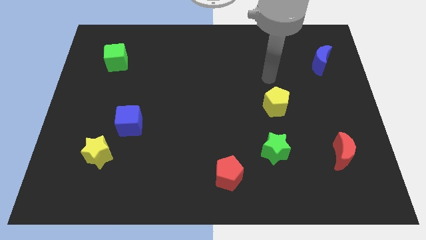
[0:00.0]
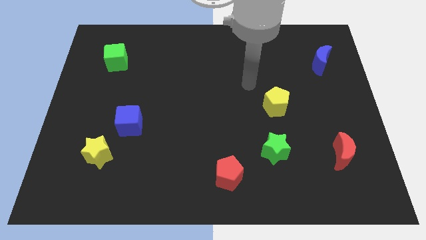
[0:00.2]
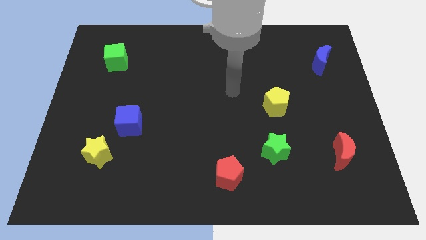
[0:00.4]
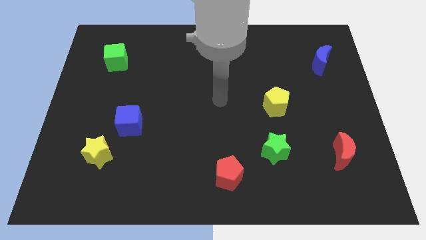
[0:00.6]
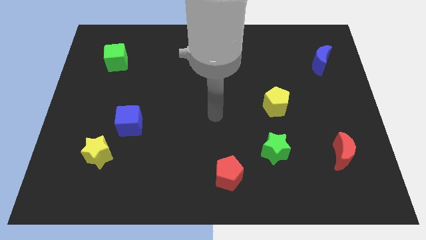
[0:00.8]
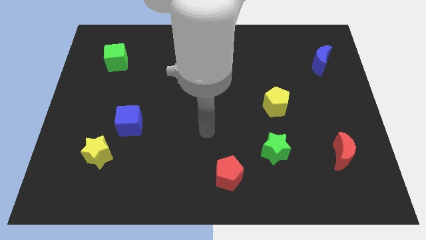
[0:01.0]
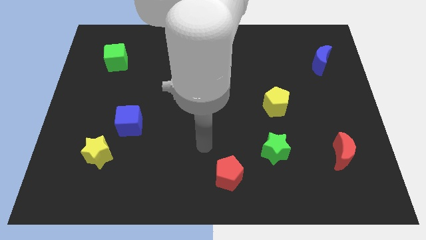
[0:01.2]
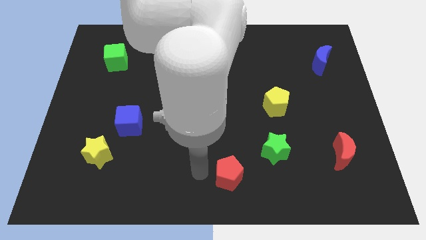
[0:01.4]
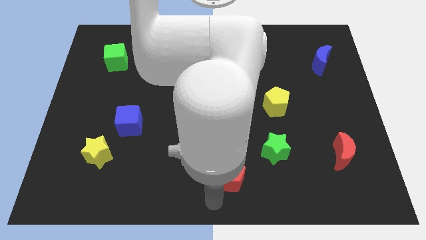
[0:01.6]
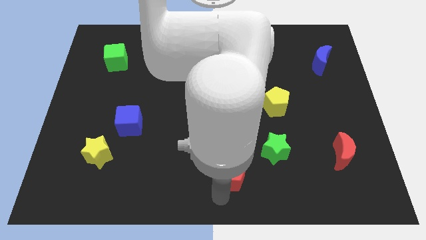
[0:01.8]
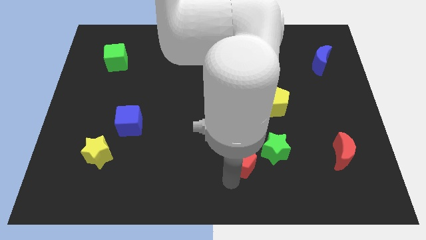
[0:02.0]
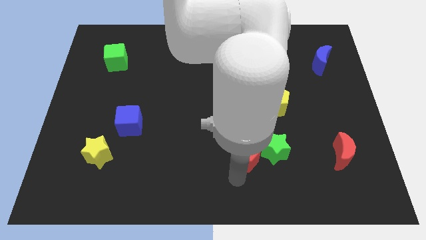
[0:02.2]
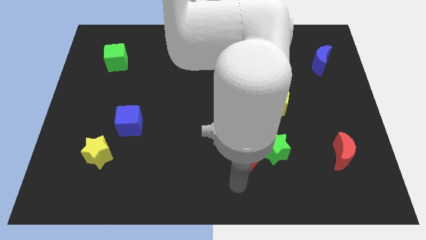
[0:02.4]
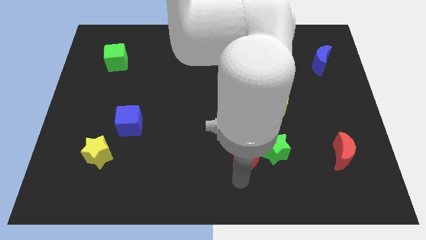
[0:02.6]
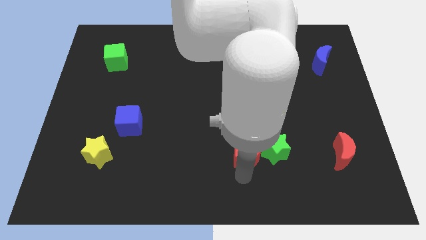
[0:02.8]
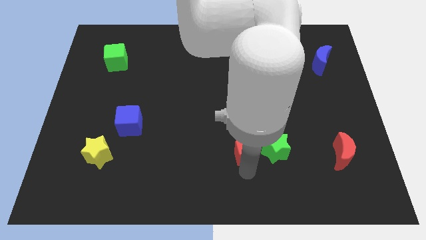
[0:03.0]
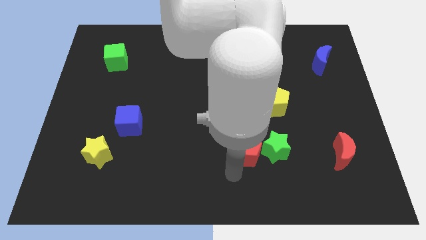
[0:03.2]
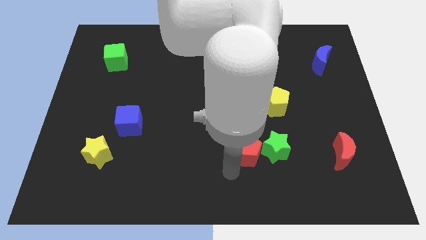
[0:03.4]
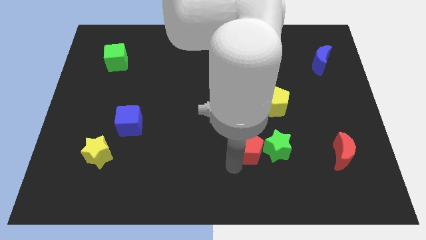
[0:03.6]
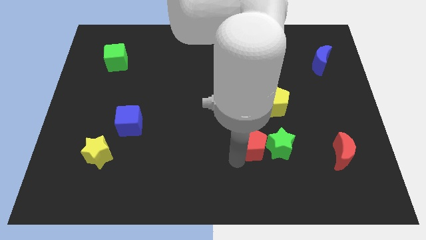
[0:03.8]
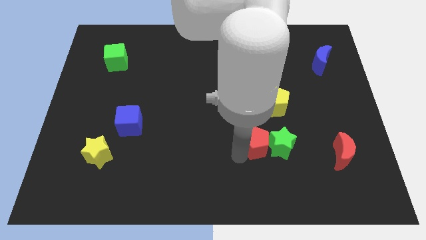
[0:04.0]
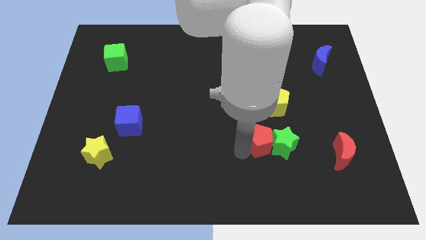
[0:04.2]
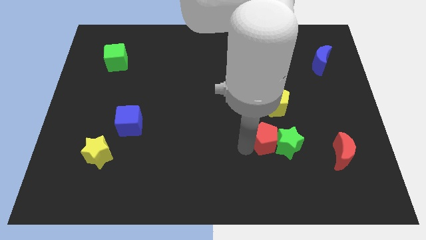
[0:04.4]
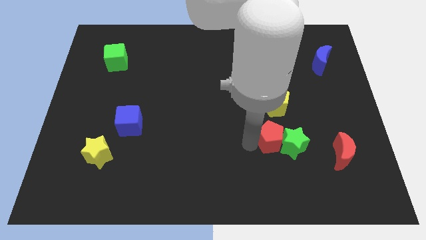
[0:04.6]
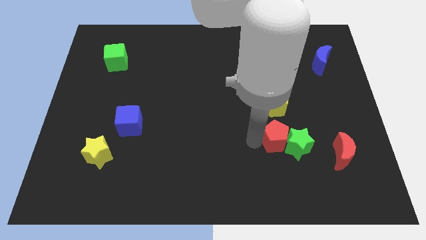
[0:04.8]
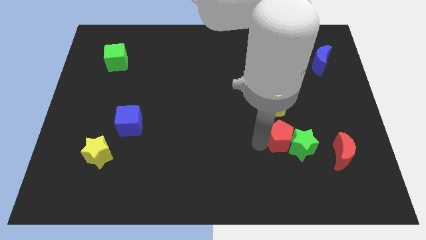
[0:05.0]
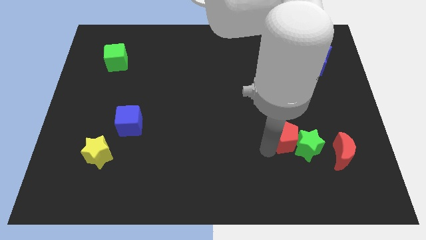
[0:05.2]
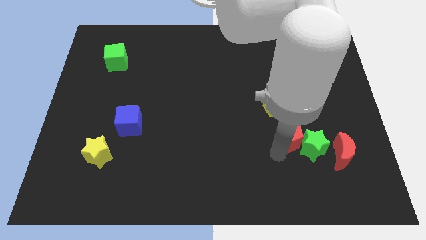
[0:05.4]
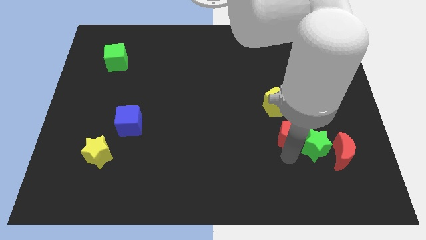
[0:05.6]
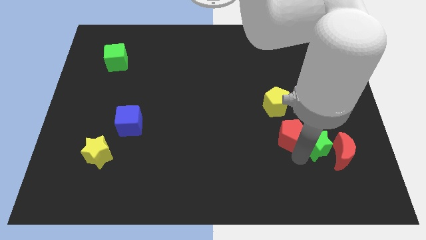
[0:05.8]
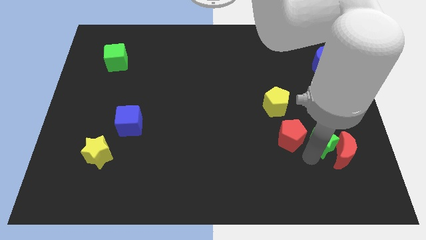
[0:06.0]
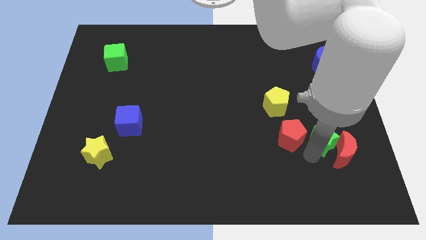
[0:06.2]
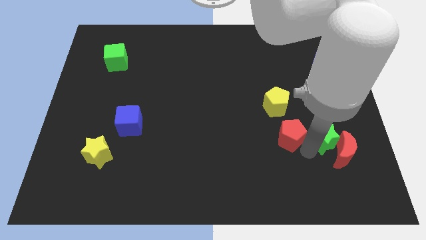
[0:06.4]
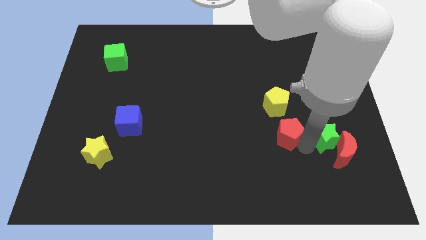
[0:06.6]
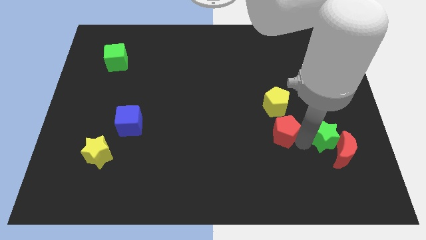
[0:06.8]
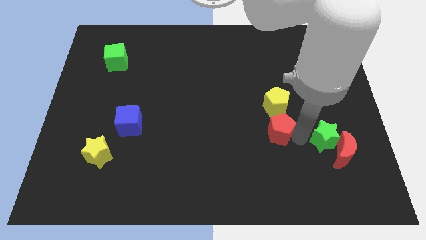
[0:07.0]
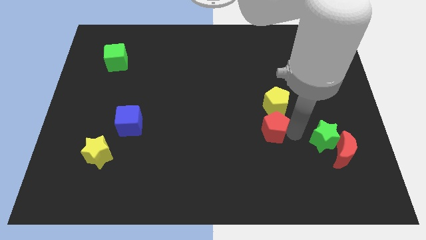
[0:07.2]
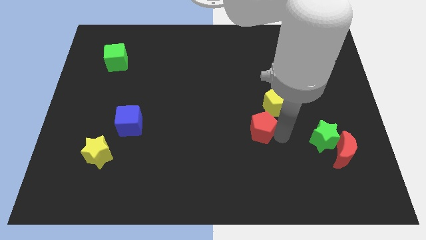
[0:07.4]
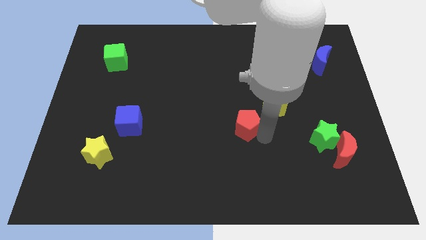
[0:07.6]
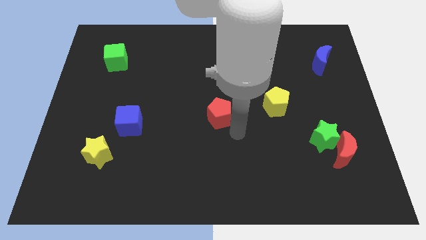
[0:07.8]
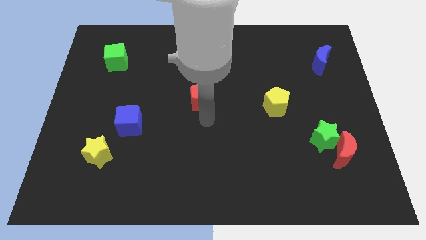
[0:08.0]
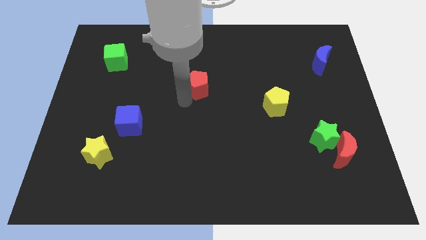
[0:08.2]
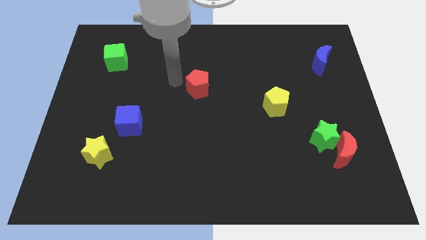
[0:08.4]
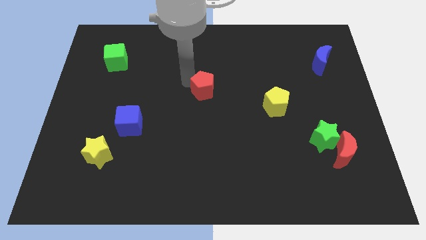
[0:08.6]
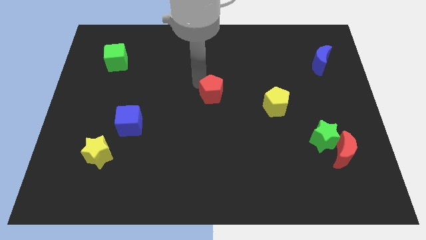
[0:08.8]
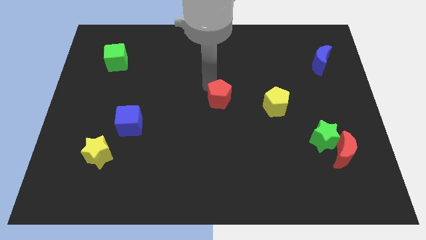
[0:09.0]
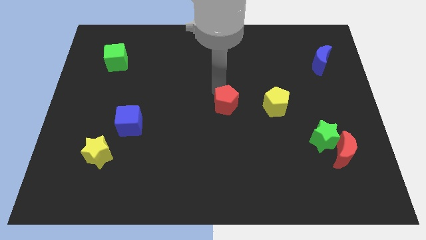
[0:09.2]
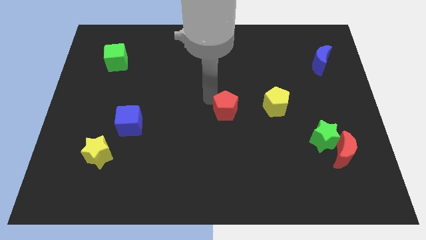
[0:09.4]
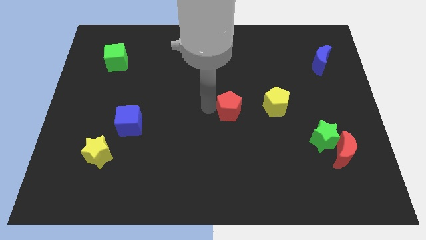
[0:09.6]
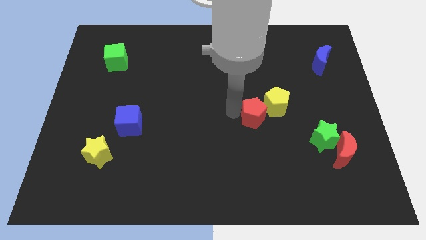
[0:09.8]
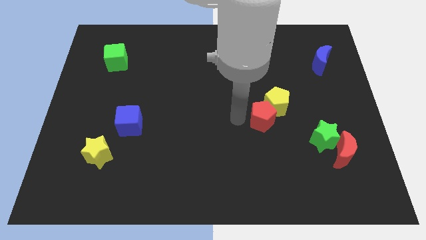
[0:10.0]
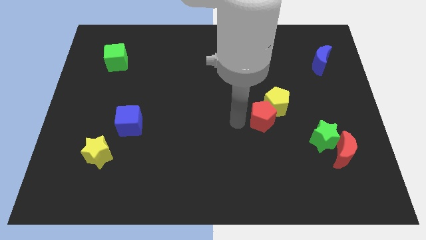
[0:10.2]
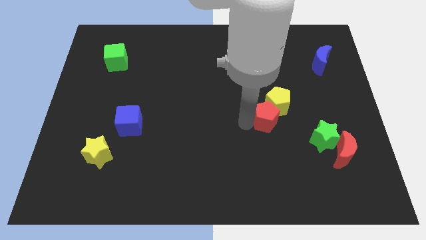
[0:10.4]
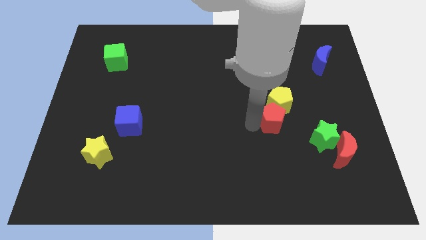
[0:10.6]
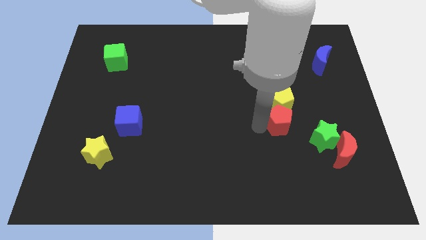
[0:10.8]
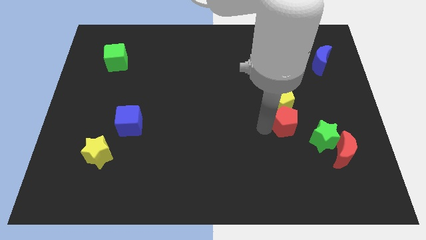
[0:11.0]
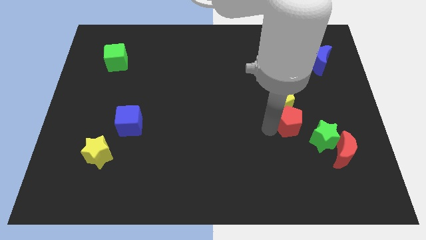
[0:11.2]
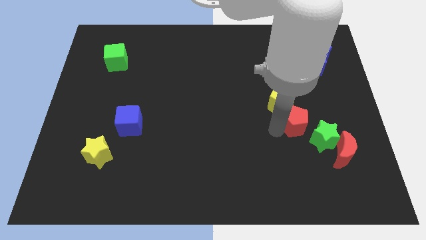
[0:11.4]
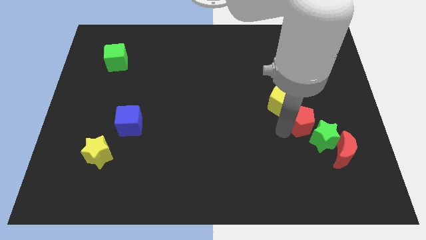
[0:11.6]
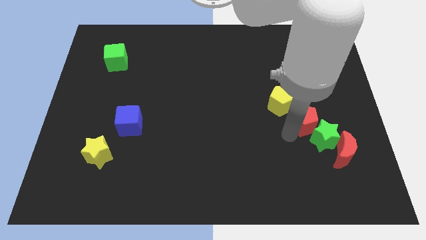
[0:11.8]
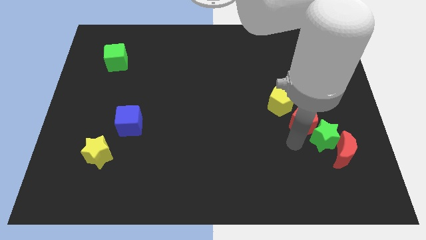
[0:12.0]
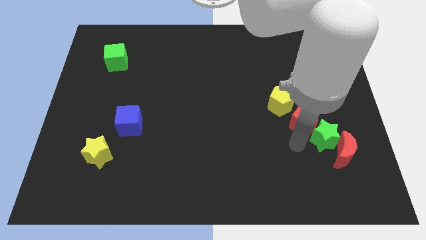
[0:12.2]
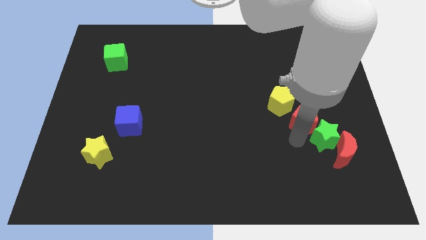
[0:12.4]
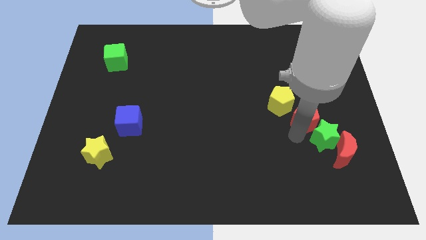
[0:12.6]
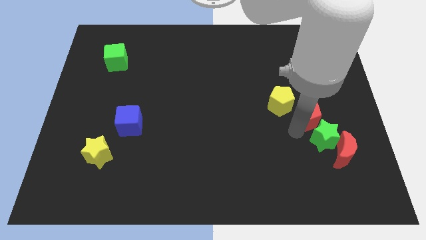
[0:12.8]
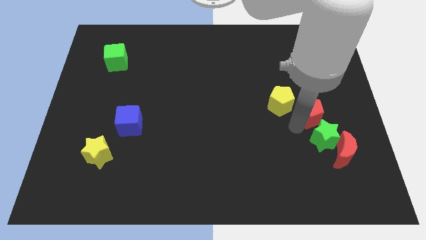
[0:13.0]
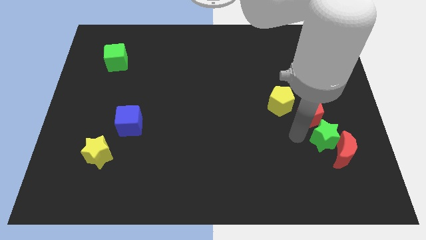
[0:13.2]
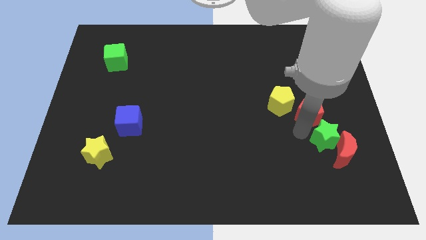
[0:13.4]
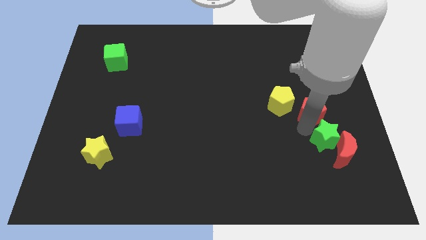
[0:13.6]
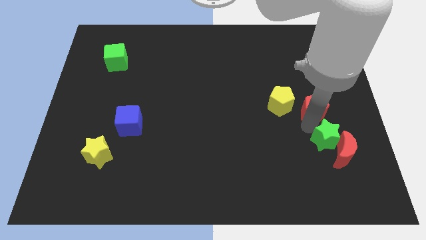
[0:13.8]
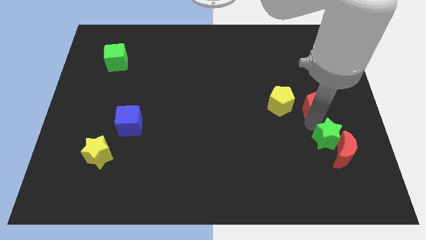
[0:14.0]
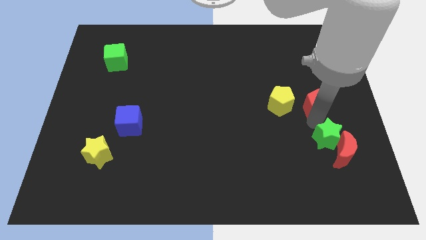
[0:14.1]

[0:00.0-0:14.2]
move the red pentagon to the bottom side of the blue moon

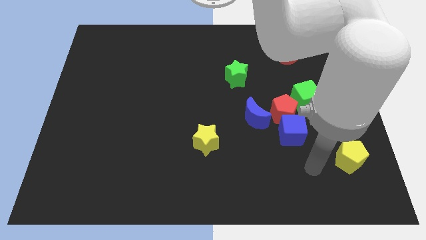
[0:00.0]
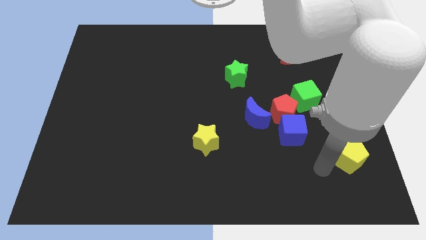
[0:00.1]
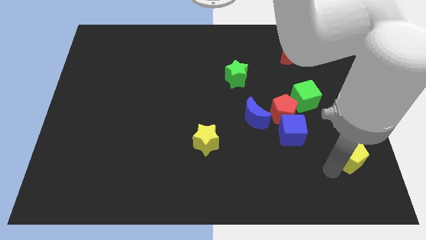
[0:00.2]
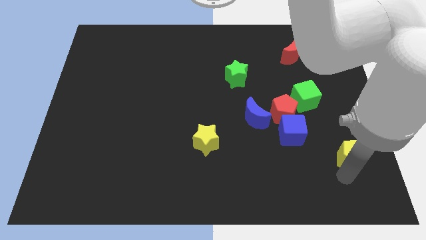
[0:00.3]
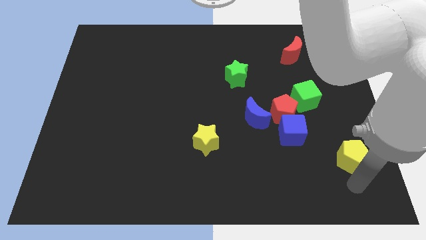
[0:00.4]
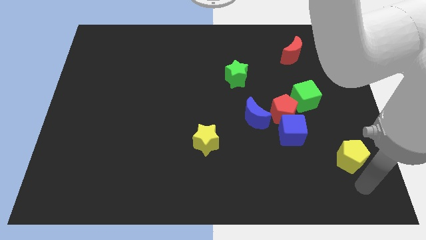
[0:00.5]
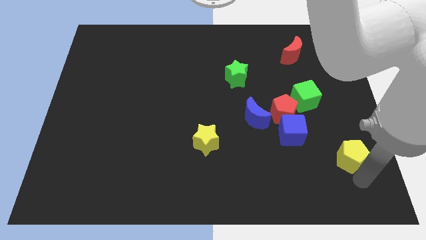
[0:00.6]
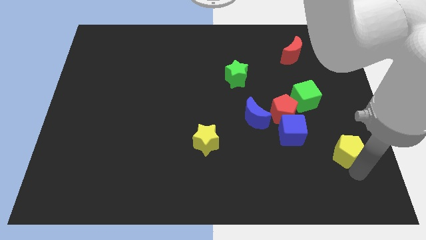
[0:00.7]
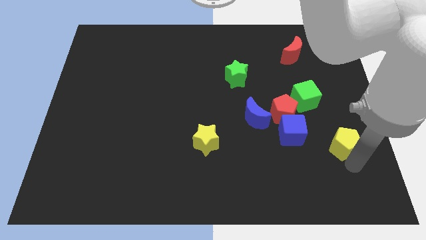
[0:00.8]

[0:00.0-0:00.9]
push the yellow pentagon to the right of the blue cube

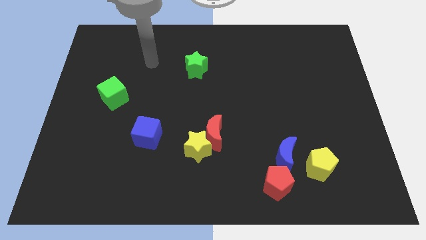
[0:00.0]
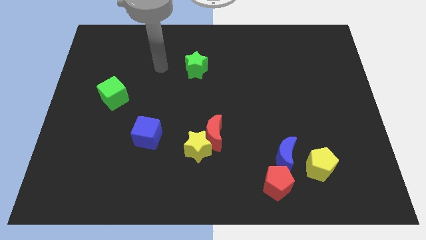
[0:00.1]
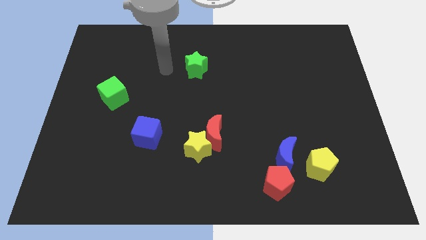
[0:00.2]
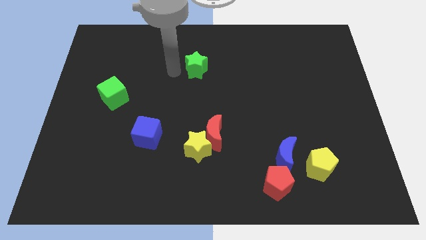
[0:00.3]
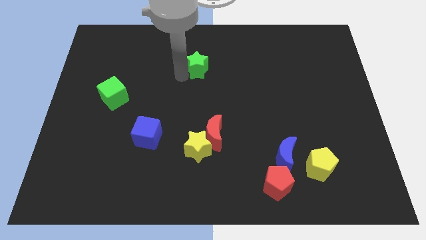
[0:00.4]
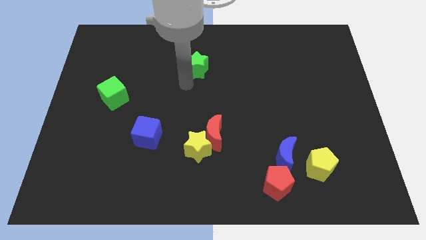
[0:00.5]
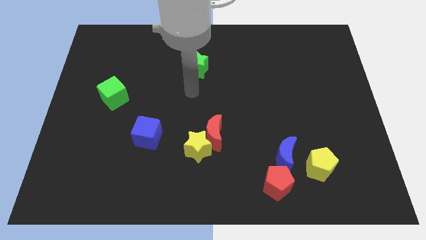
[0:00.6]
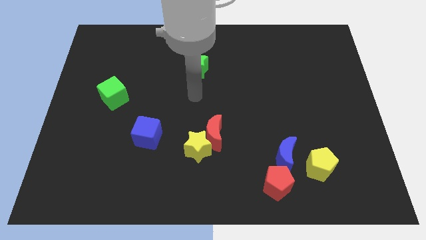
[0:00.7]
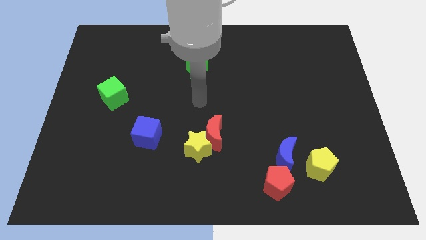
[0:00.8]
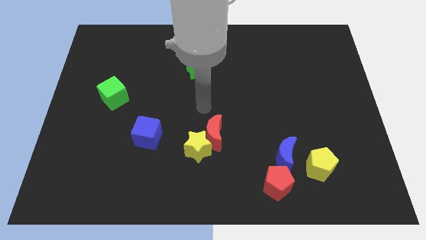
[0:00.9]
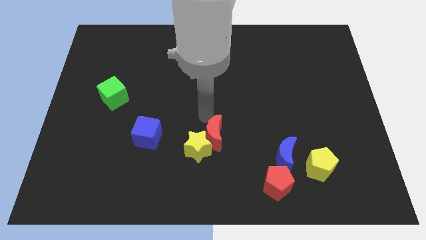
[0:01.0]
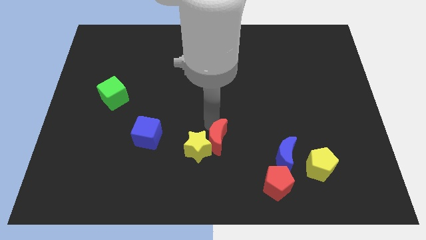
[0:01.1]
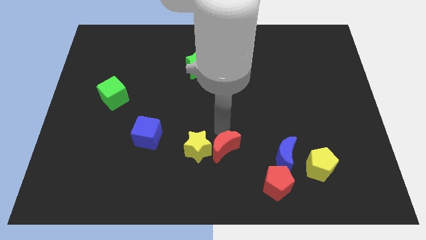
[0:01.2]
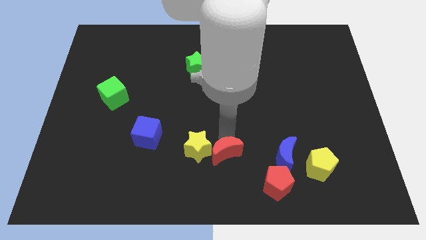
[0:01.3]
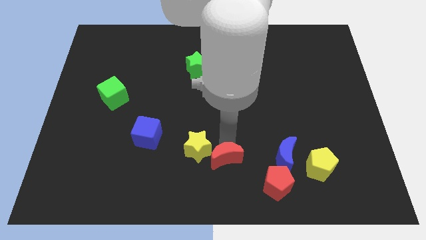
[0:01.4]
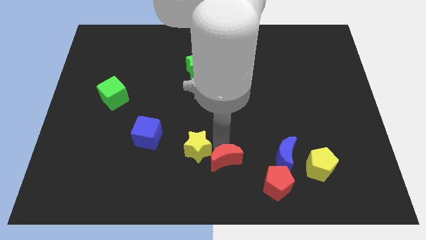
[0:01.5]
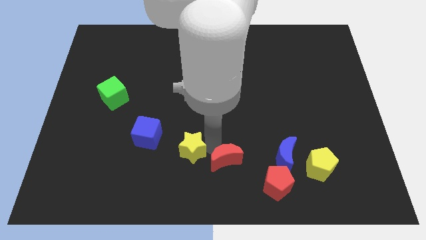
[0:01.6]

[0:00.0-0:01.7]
move the yellow star to the bottom right of the blue cube
